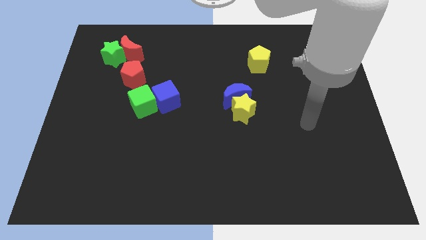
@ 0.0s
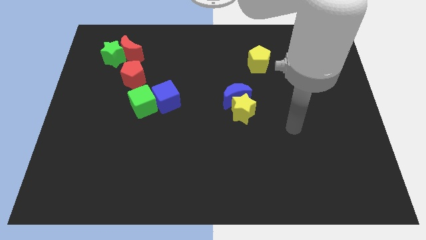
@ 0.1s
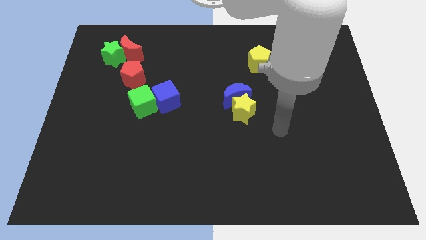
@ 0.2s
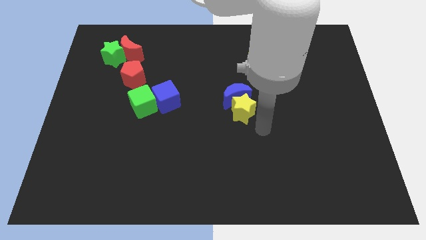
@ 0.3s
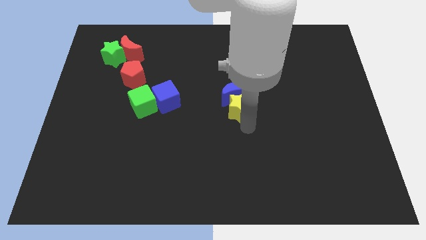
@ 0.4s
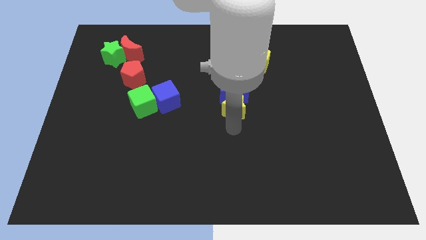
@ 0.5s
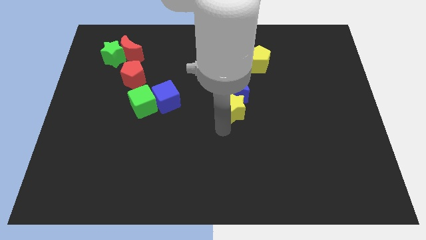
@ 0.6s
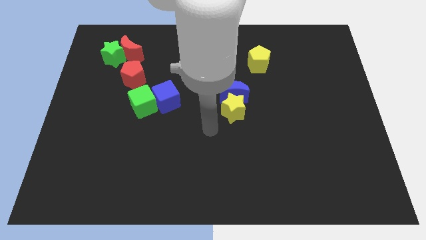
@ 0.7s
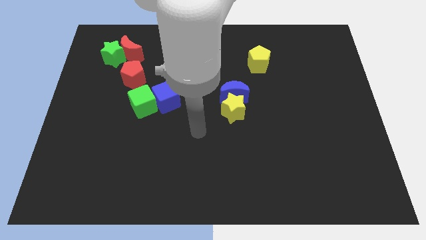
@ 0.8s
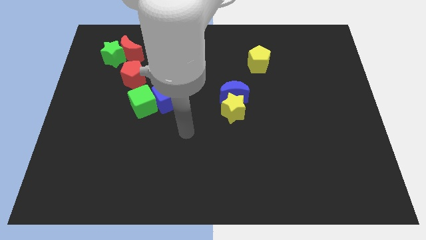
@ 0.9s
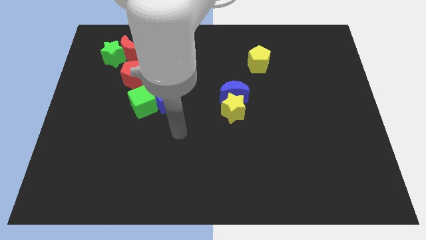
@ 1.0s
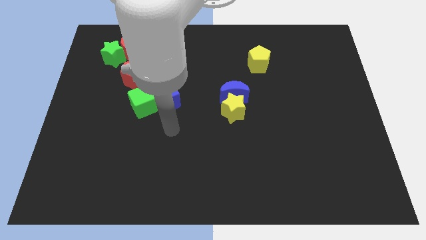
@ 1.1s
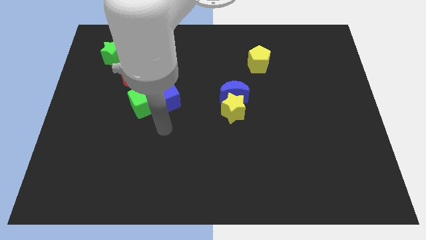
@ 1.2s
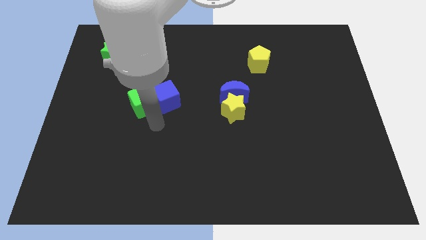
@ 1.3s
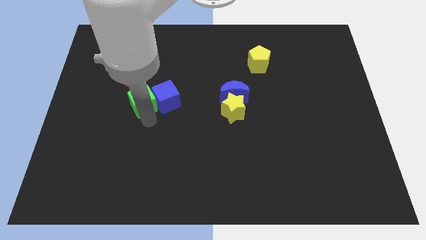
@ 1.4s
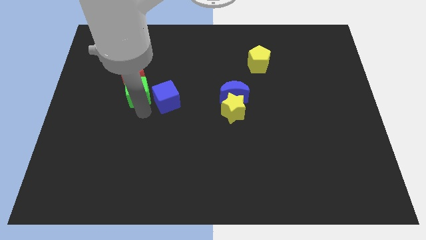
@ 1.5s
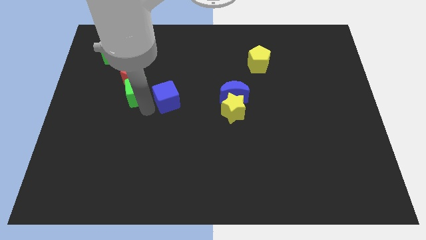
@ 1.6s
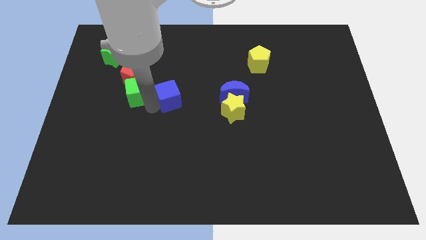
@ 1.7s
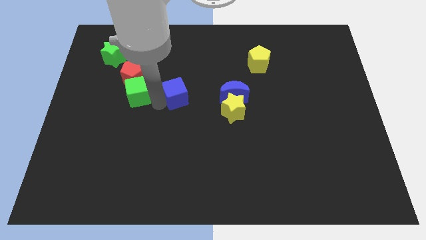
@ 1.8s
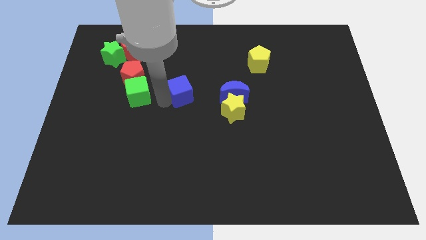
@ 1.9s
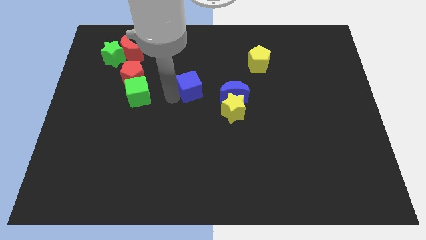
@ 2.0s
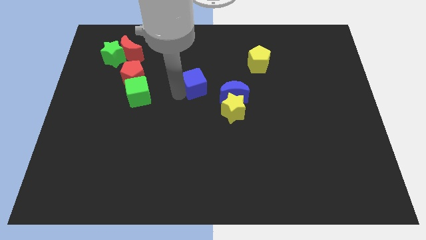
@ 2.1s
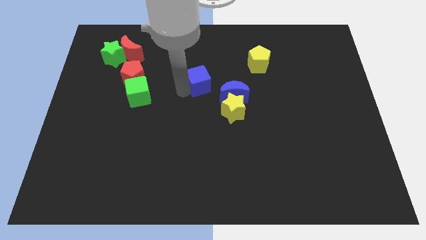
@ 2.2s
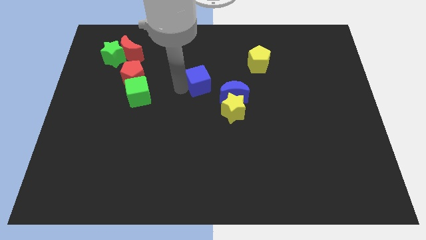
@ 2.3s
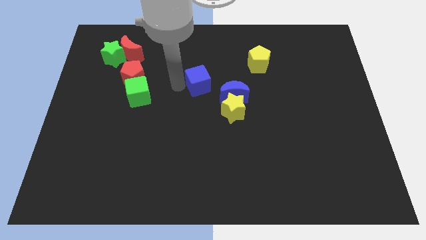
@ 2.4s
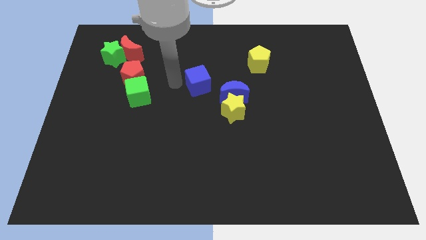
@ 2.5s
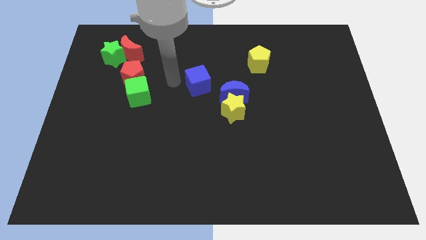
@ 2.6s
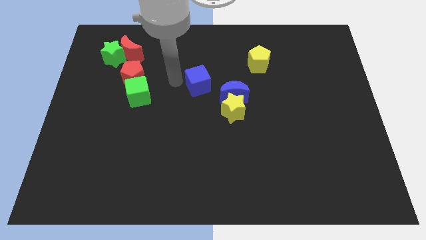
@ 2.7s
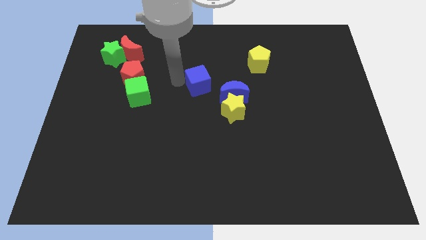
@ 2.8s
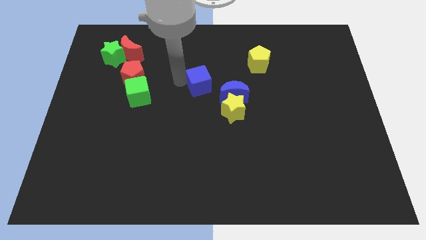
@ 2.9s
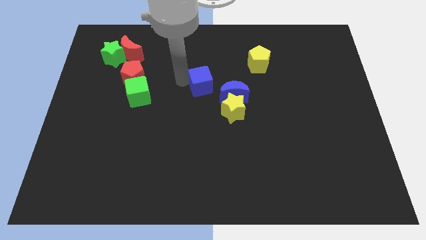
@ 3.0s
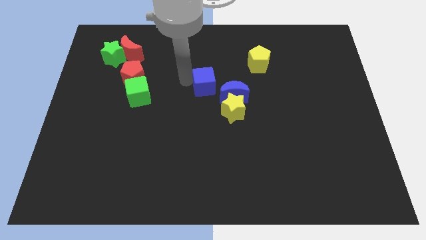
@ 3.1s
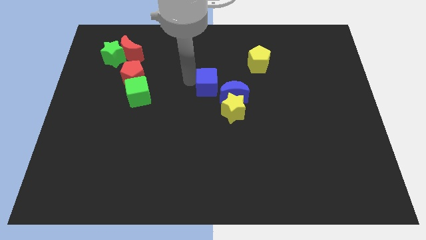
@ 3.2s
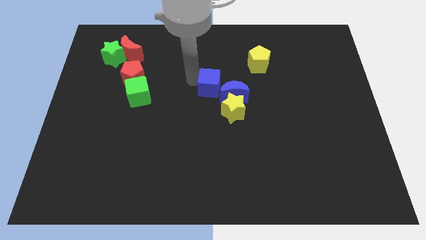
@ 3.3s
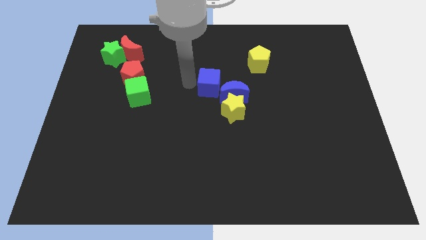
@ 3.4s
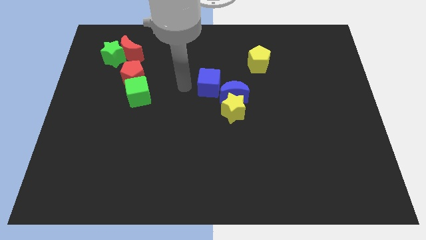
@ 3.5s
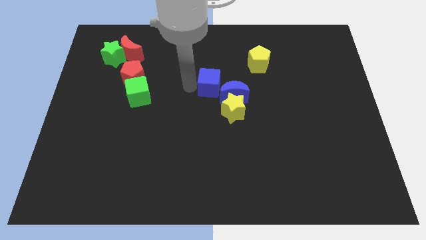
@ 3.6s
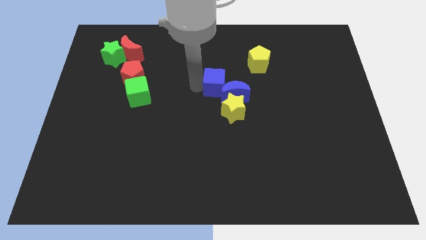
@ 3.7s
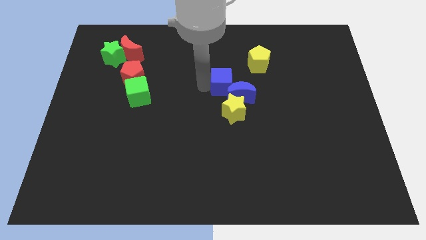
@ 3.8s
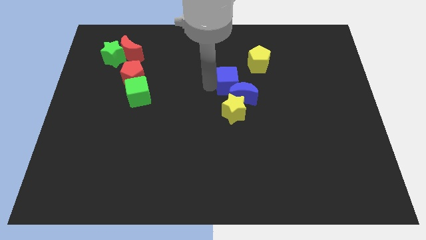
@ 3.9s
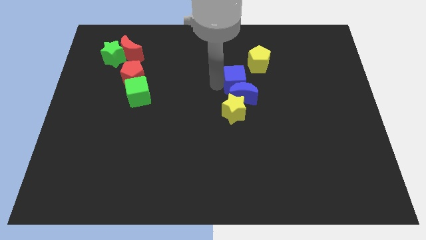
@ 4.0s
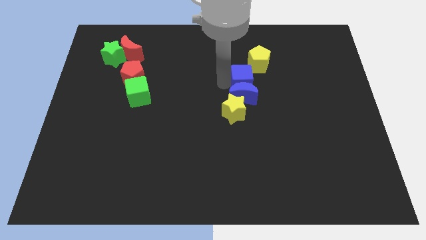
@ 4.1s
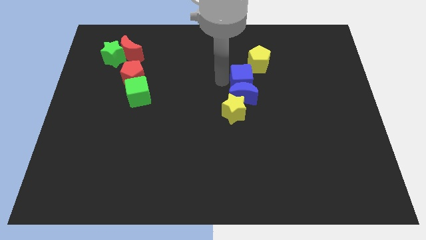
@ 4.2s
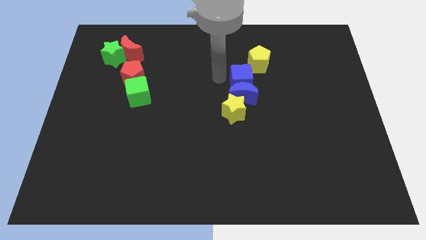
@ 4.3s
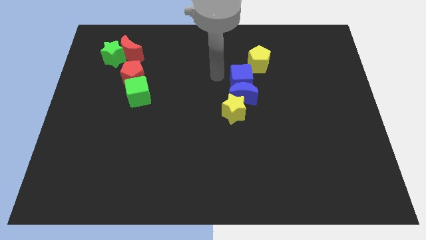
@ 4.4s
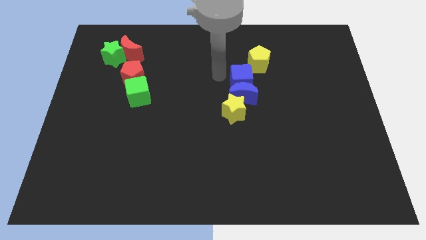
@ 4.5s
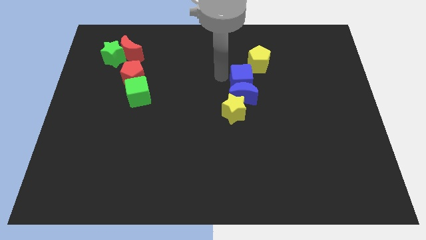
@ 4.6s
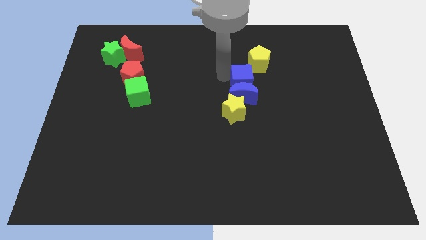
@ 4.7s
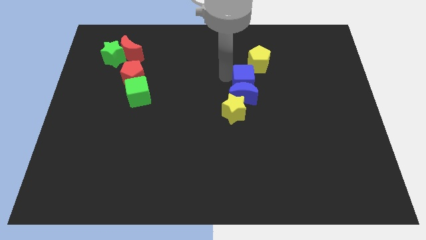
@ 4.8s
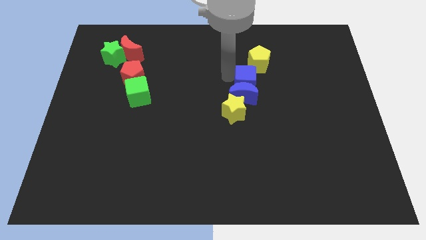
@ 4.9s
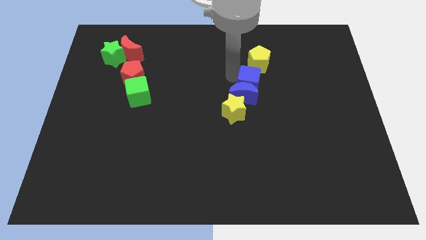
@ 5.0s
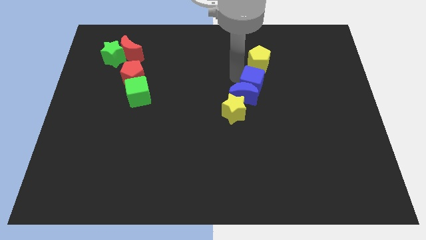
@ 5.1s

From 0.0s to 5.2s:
slide the blue cube right of the blue moon

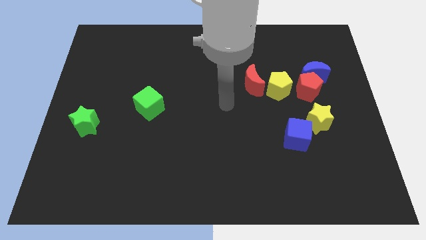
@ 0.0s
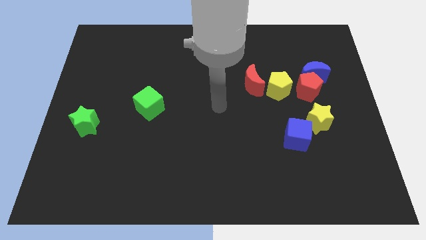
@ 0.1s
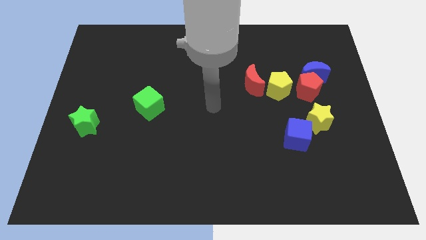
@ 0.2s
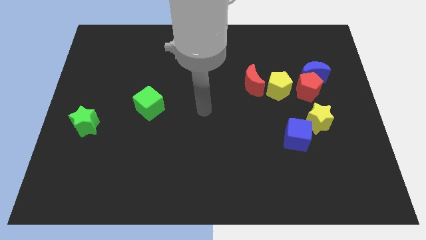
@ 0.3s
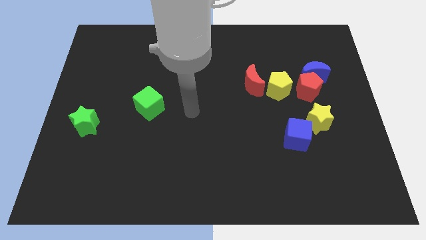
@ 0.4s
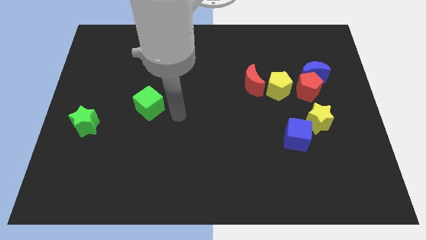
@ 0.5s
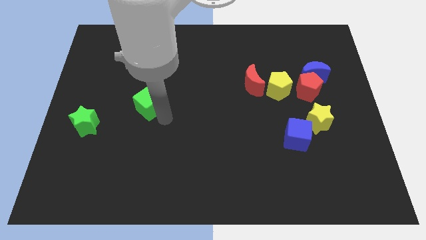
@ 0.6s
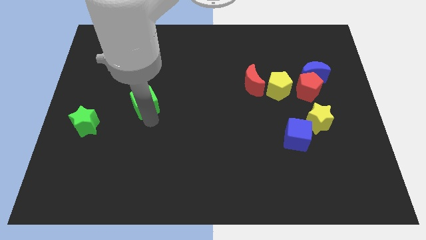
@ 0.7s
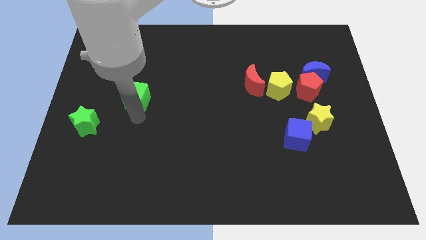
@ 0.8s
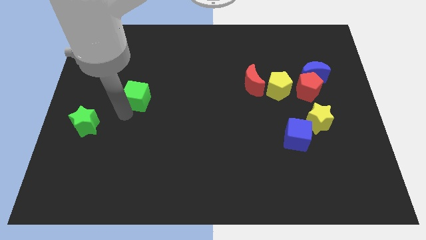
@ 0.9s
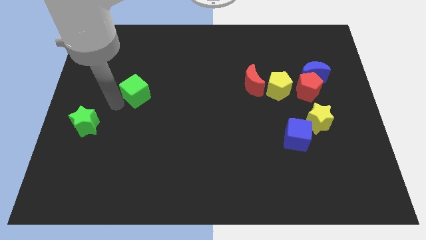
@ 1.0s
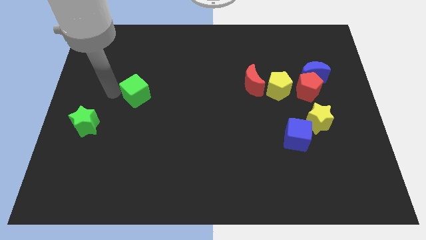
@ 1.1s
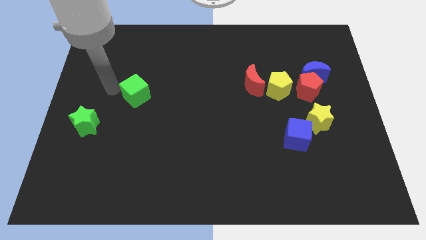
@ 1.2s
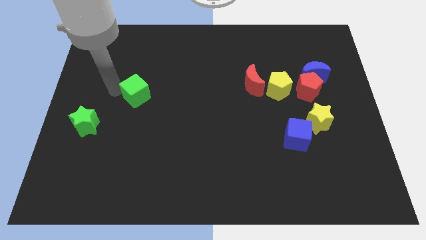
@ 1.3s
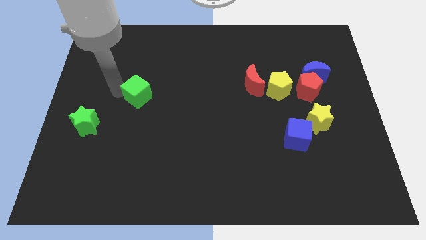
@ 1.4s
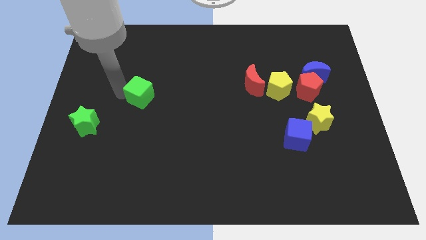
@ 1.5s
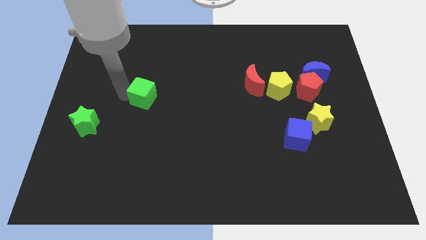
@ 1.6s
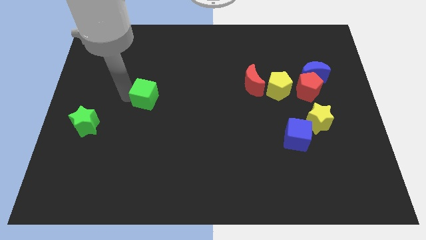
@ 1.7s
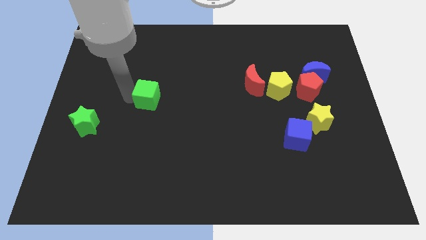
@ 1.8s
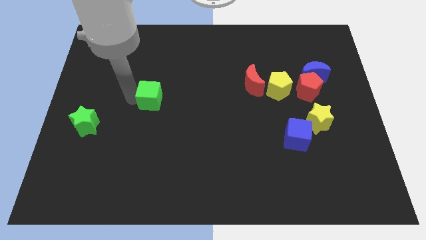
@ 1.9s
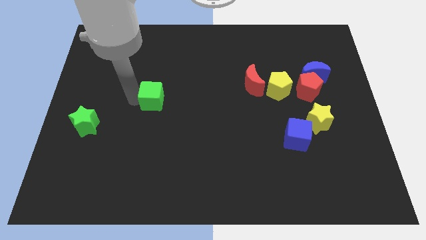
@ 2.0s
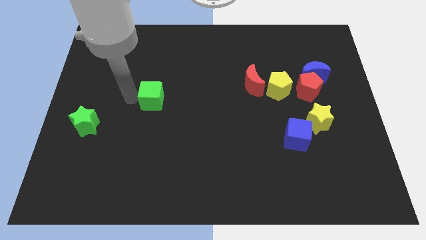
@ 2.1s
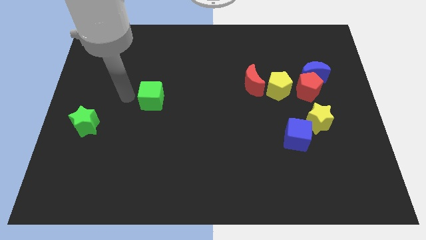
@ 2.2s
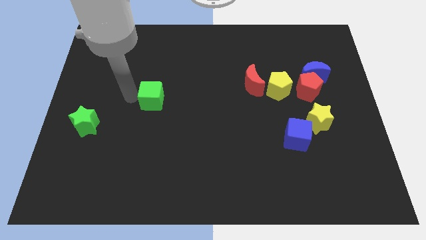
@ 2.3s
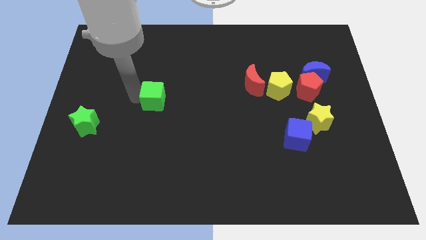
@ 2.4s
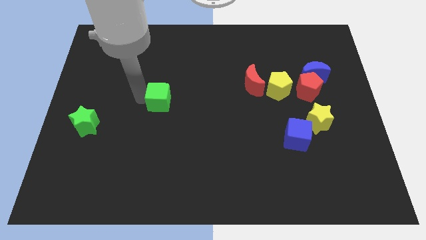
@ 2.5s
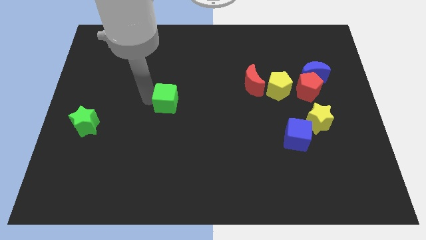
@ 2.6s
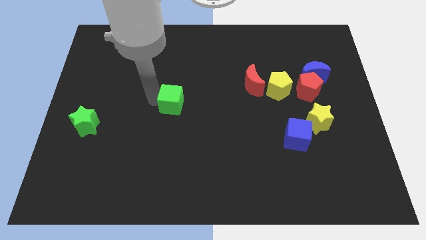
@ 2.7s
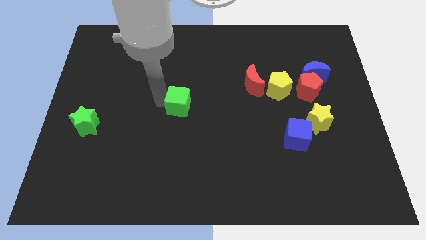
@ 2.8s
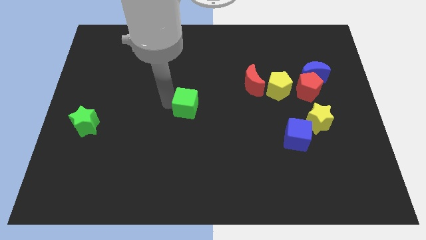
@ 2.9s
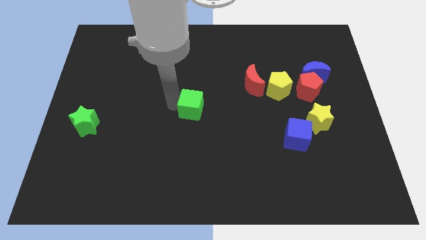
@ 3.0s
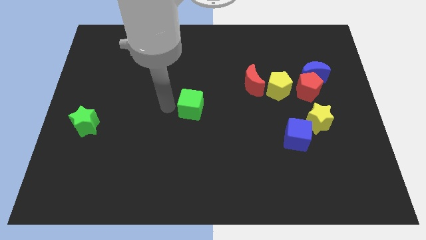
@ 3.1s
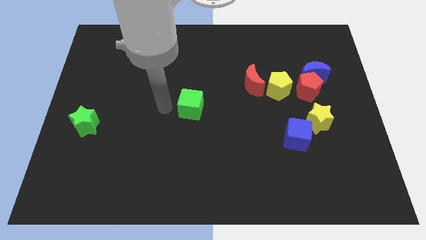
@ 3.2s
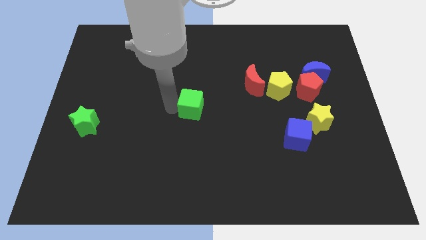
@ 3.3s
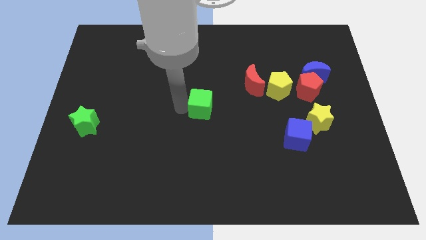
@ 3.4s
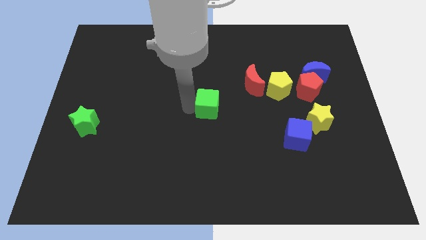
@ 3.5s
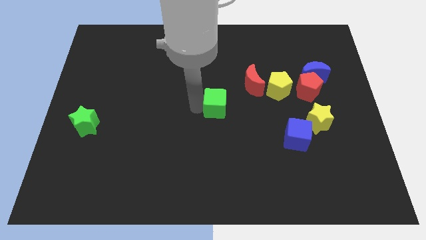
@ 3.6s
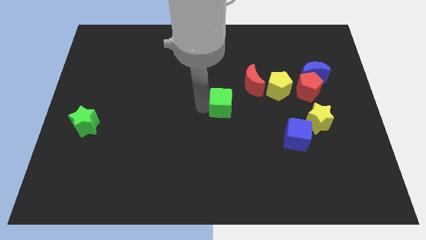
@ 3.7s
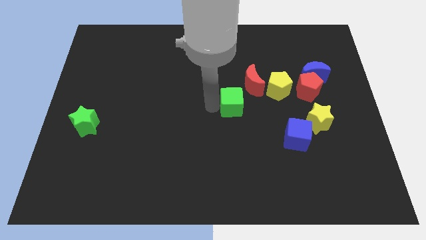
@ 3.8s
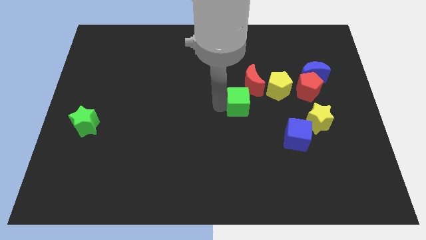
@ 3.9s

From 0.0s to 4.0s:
put the green cube to the bottom left side of the yellow pentagon
